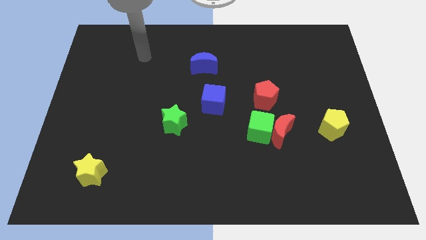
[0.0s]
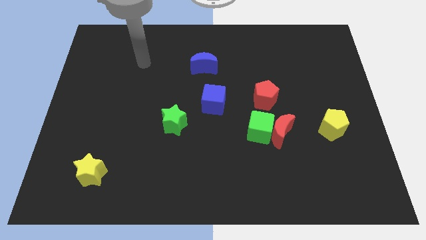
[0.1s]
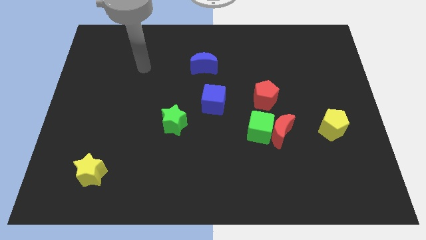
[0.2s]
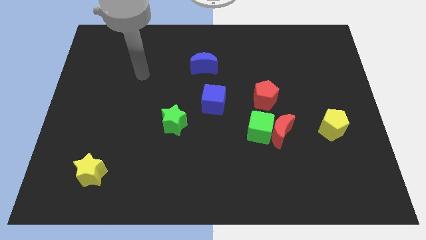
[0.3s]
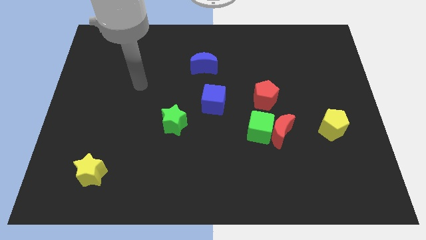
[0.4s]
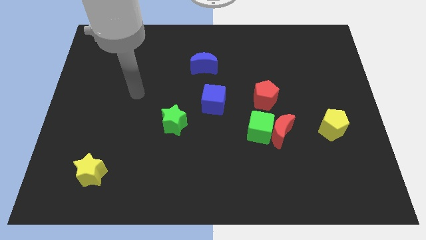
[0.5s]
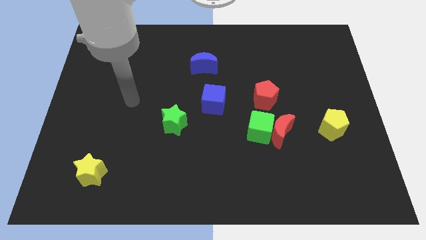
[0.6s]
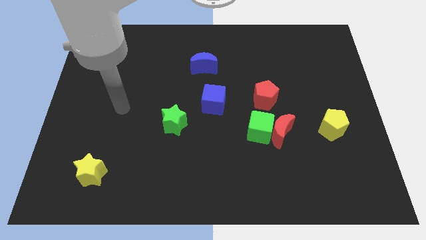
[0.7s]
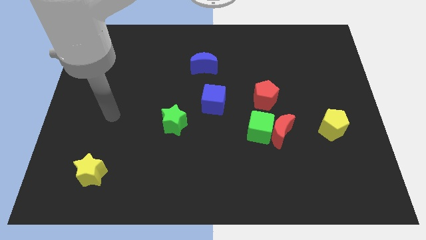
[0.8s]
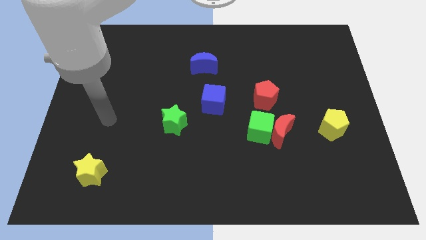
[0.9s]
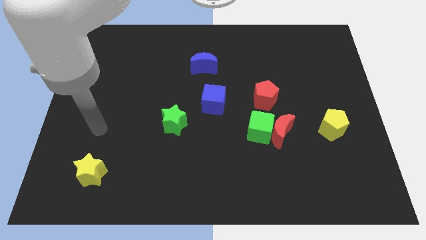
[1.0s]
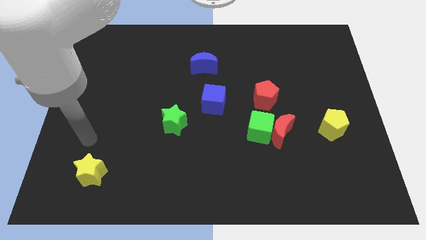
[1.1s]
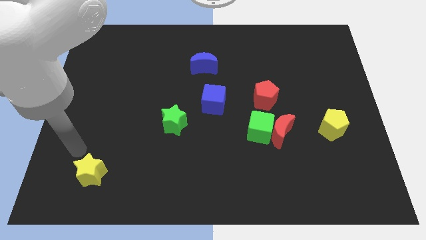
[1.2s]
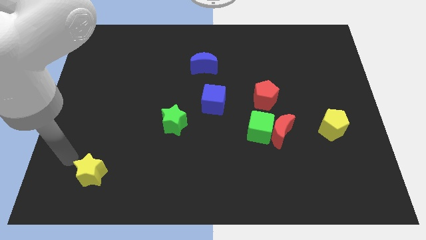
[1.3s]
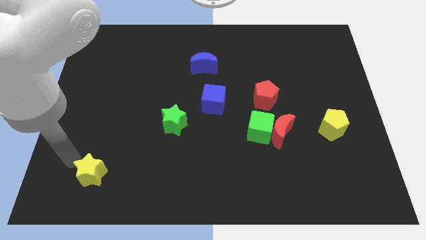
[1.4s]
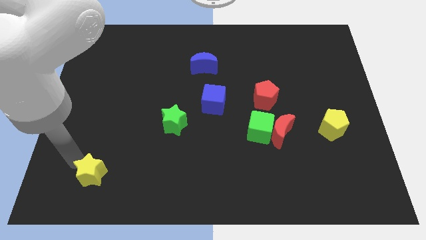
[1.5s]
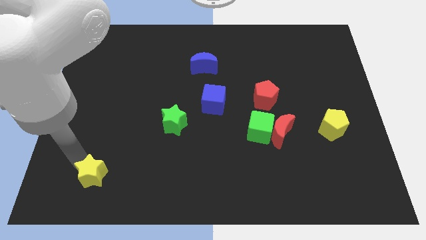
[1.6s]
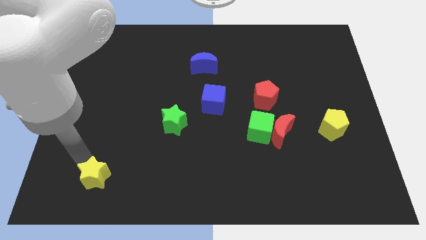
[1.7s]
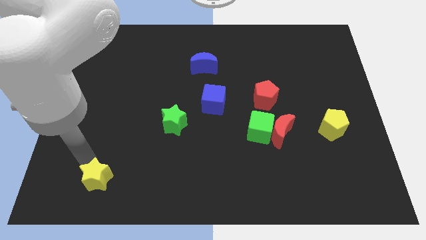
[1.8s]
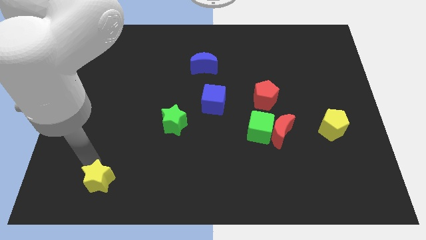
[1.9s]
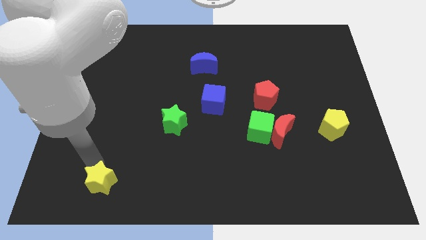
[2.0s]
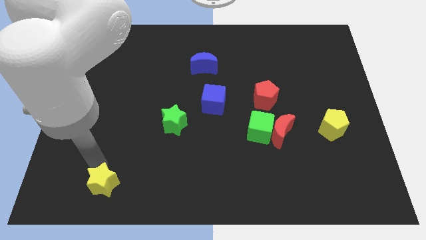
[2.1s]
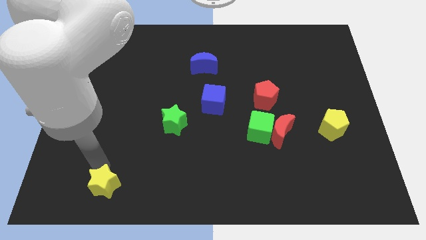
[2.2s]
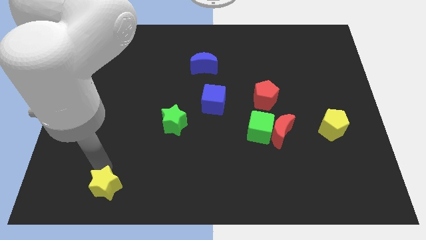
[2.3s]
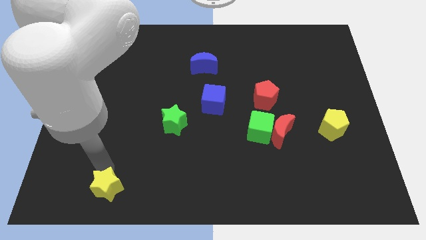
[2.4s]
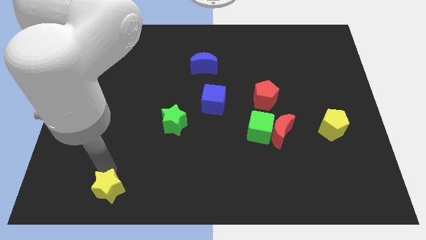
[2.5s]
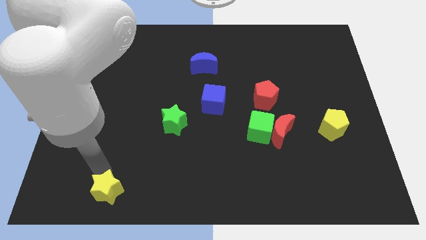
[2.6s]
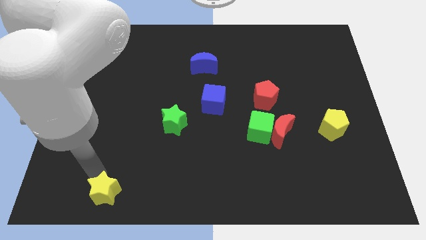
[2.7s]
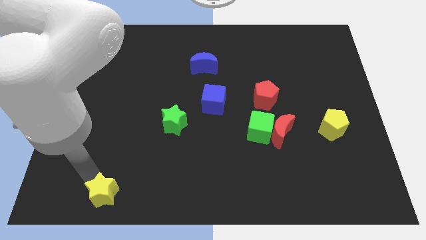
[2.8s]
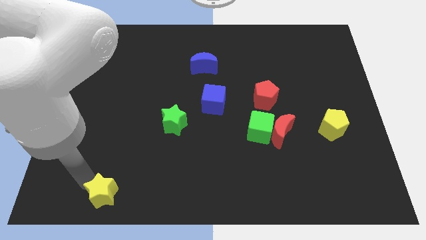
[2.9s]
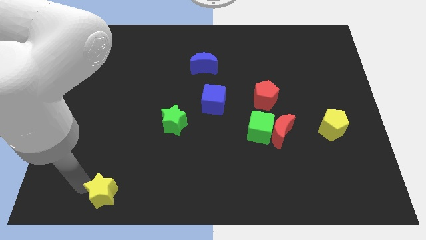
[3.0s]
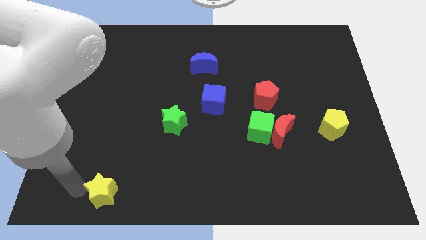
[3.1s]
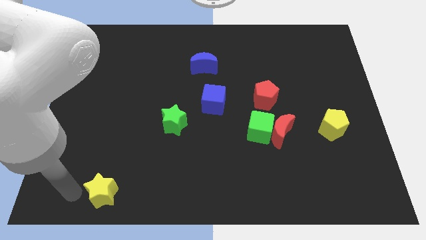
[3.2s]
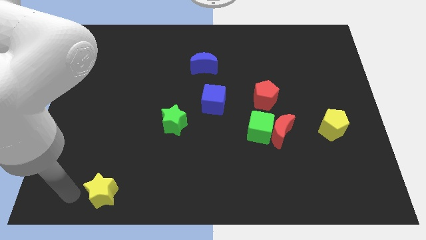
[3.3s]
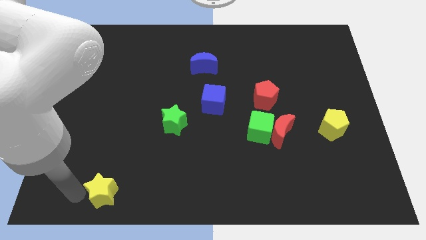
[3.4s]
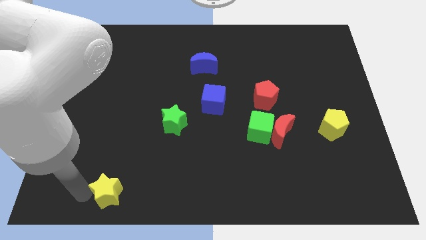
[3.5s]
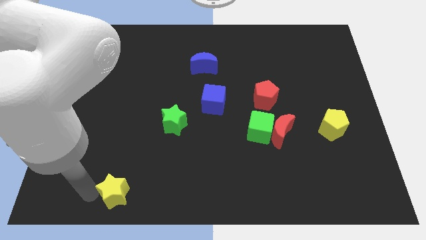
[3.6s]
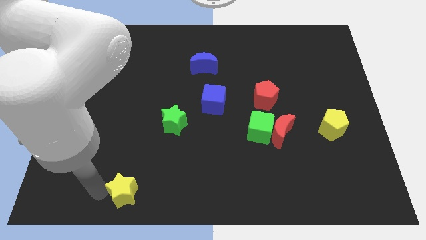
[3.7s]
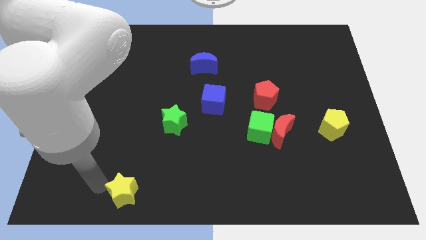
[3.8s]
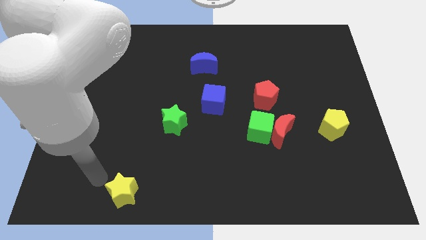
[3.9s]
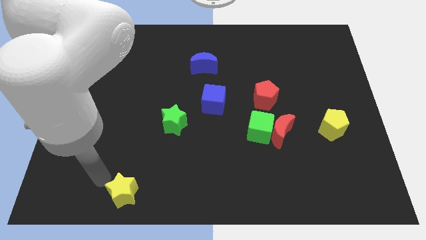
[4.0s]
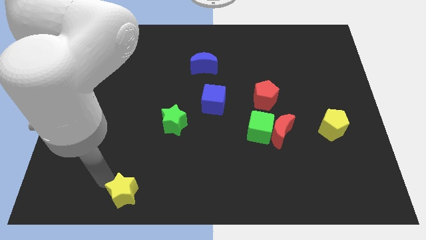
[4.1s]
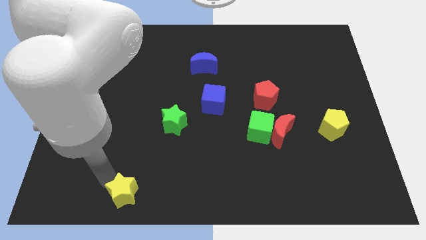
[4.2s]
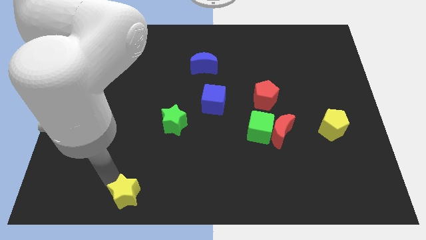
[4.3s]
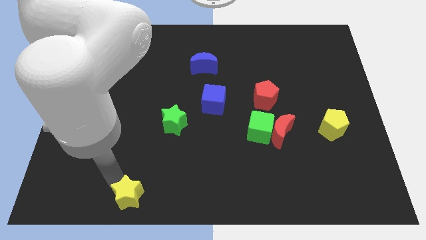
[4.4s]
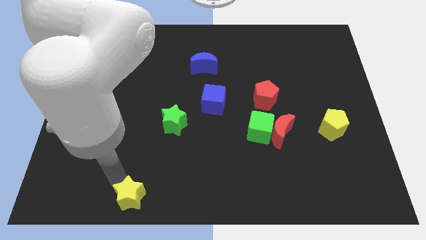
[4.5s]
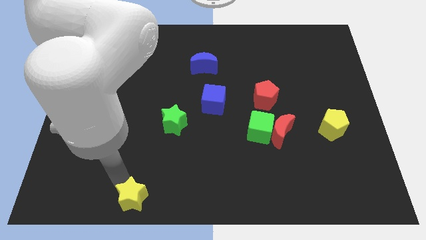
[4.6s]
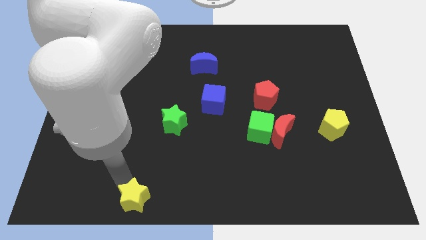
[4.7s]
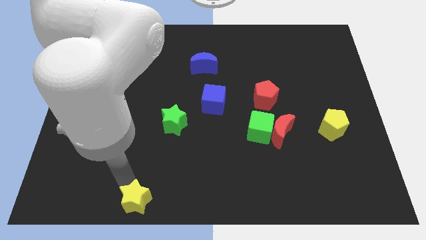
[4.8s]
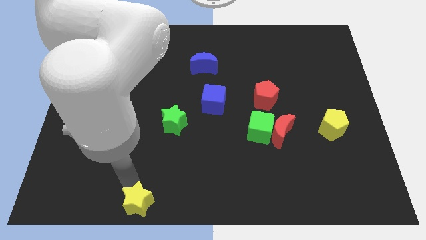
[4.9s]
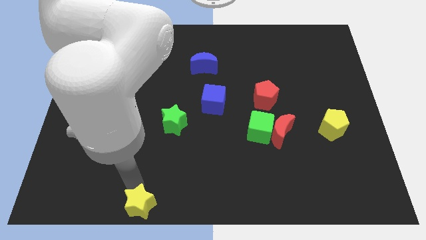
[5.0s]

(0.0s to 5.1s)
push the yellow star to the bottom

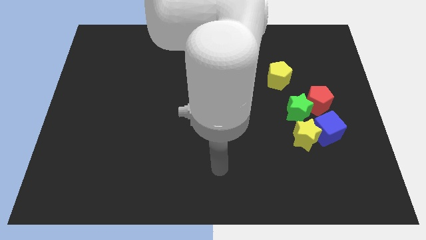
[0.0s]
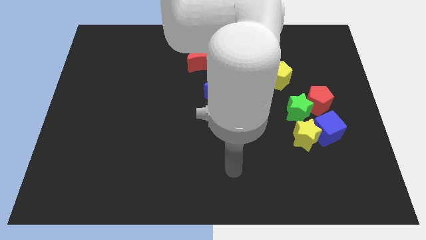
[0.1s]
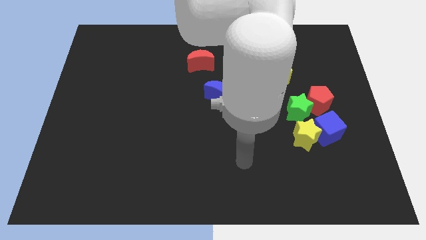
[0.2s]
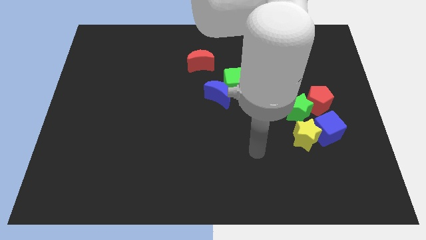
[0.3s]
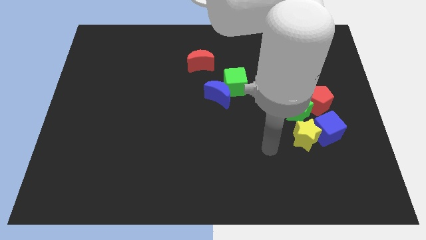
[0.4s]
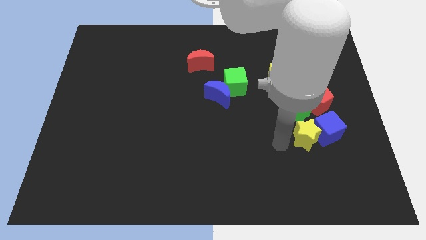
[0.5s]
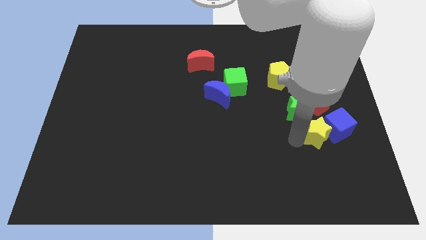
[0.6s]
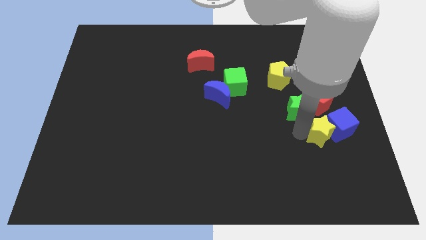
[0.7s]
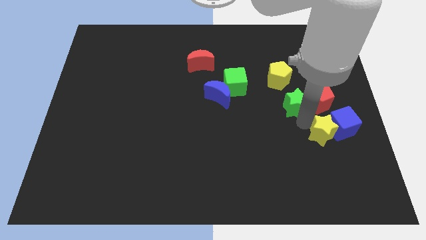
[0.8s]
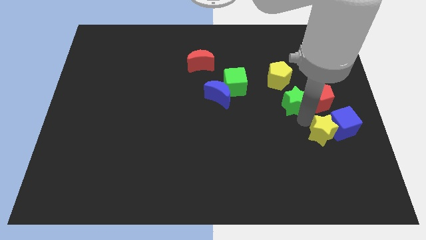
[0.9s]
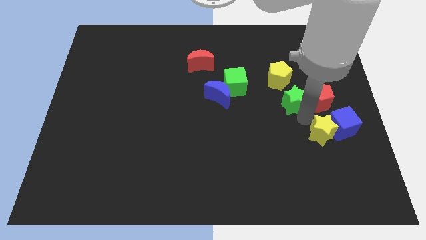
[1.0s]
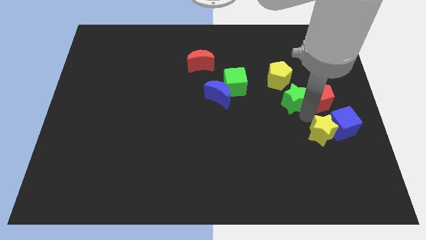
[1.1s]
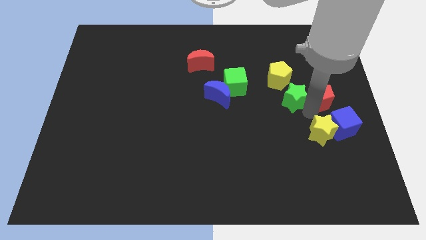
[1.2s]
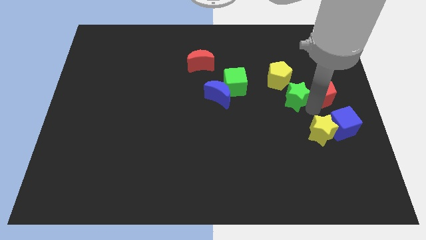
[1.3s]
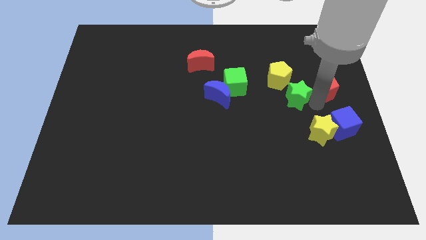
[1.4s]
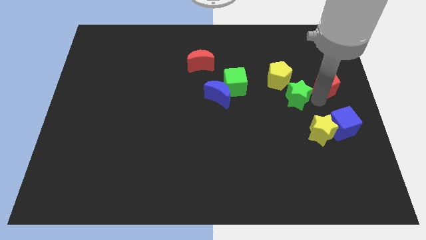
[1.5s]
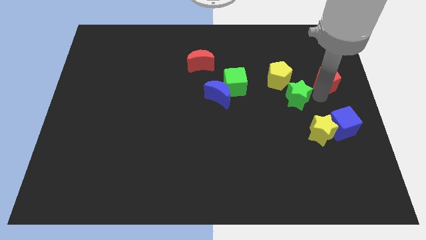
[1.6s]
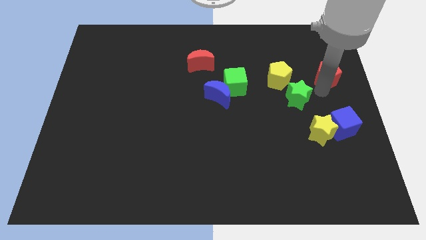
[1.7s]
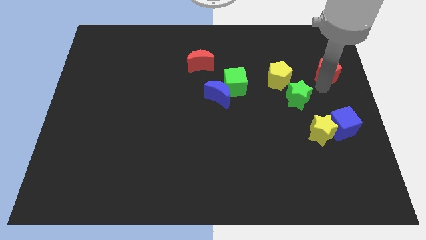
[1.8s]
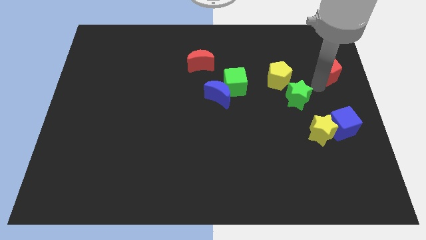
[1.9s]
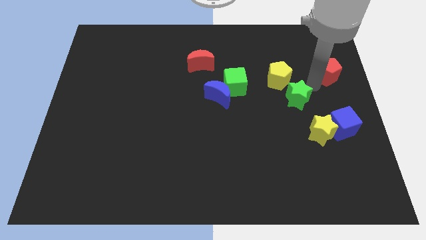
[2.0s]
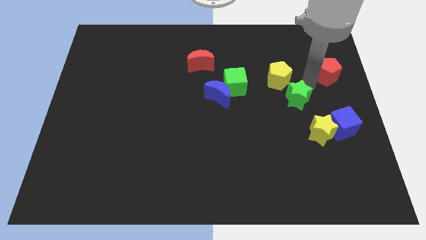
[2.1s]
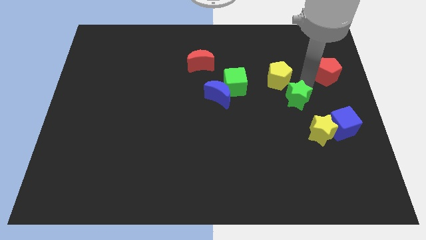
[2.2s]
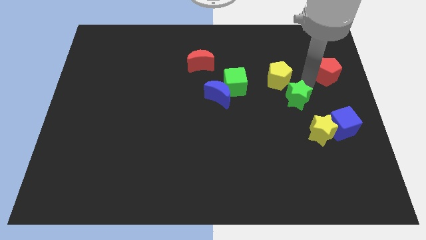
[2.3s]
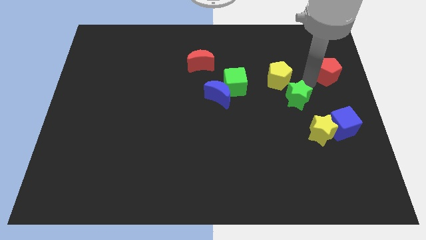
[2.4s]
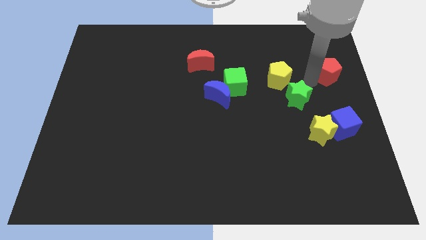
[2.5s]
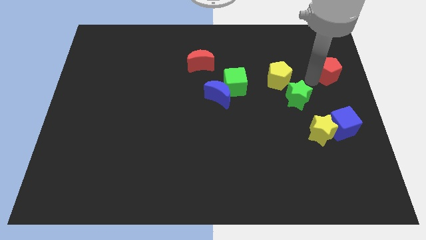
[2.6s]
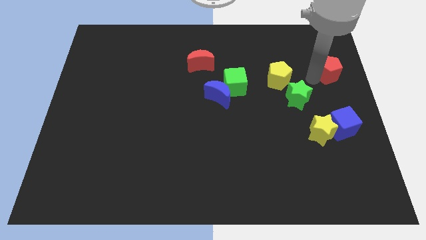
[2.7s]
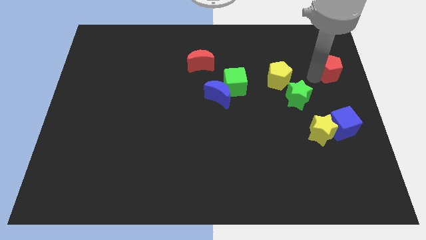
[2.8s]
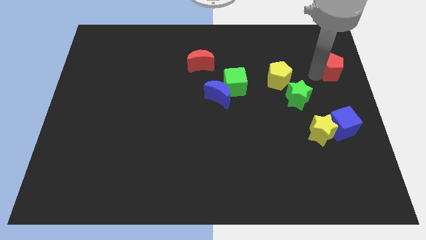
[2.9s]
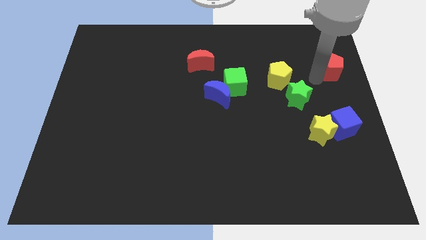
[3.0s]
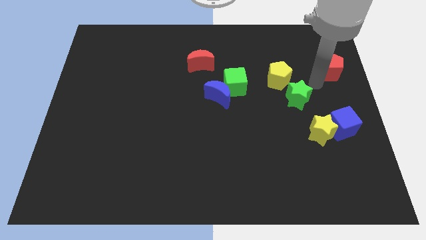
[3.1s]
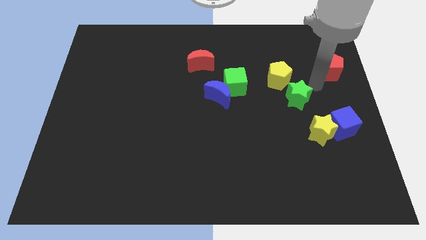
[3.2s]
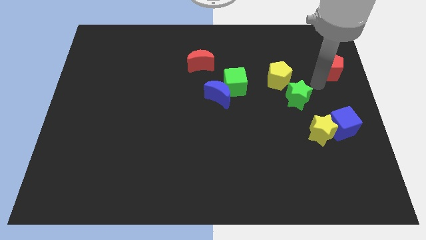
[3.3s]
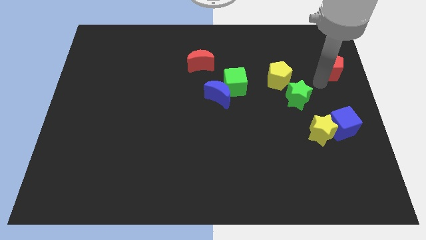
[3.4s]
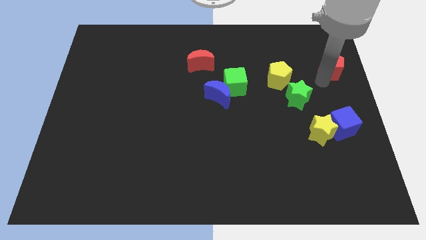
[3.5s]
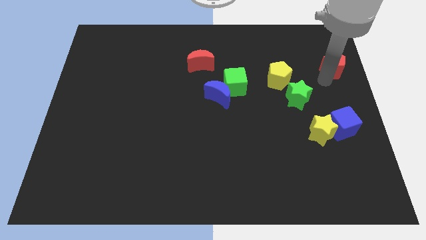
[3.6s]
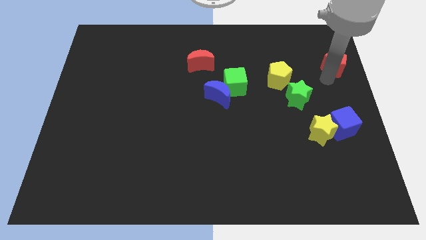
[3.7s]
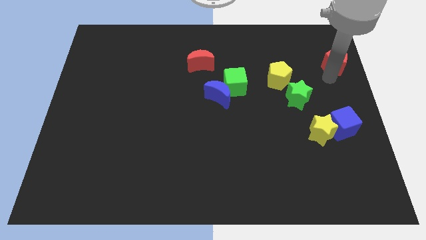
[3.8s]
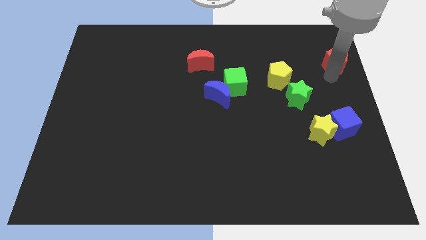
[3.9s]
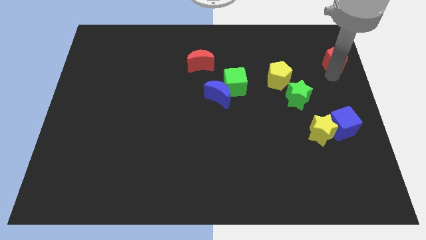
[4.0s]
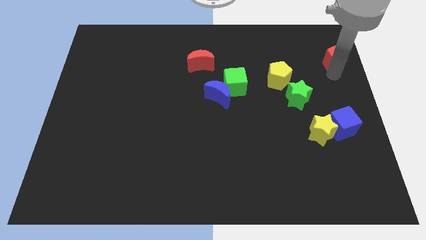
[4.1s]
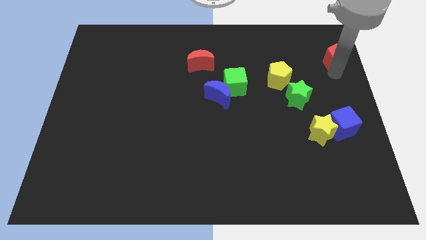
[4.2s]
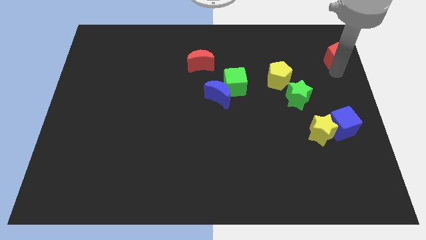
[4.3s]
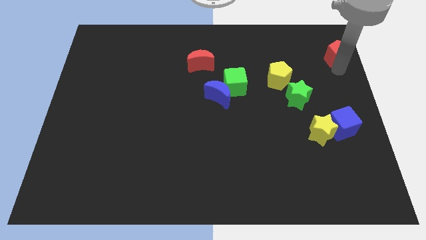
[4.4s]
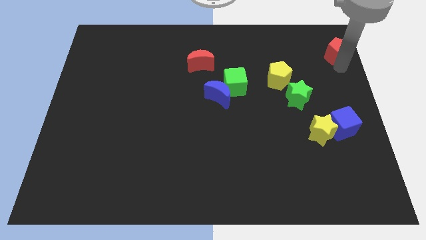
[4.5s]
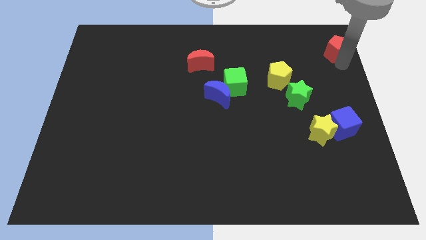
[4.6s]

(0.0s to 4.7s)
move the red pentagon to the top right of the board
